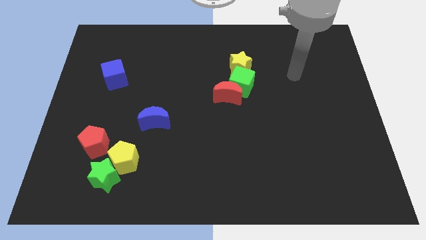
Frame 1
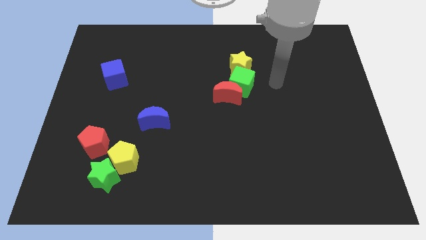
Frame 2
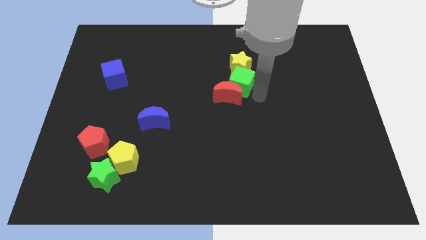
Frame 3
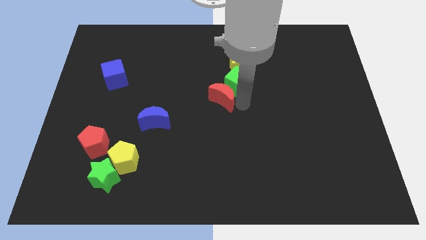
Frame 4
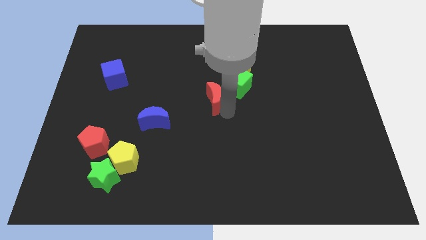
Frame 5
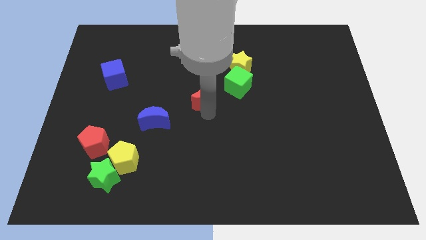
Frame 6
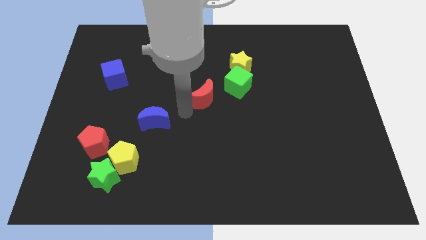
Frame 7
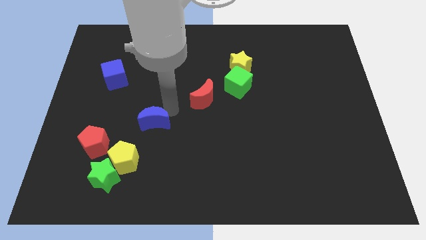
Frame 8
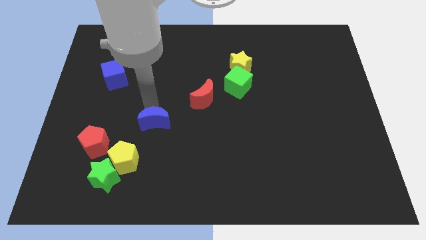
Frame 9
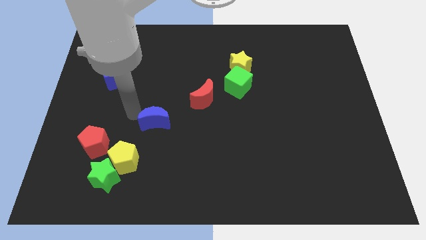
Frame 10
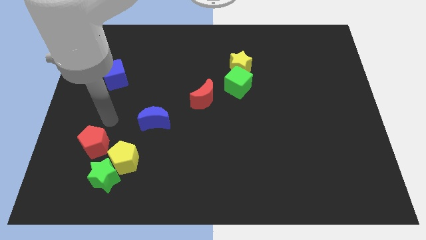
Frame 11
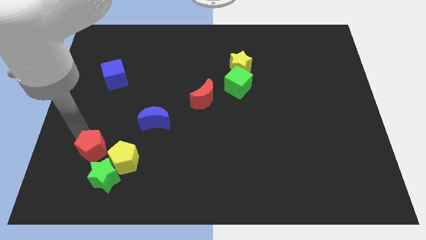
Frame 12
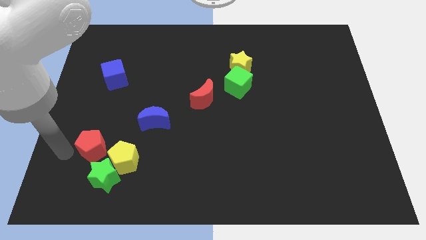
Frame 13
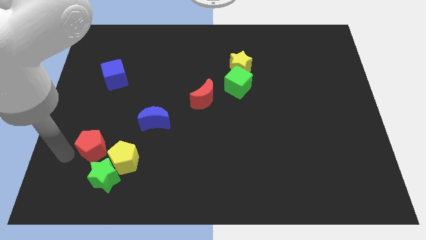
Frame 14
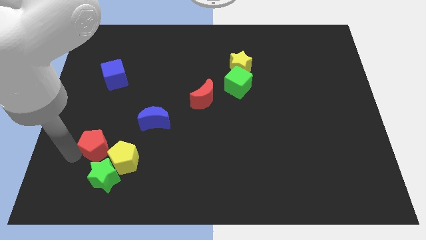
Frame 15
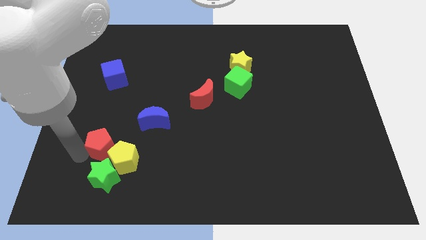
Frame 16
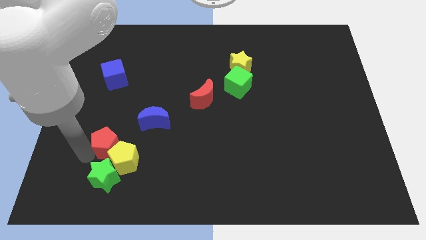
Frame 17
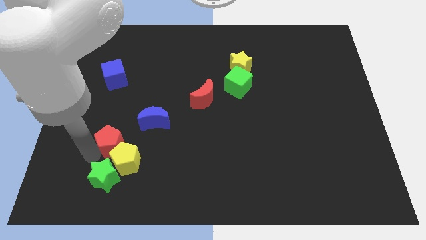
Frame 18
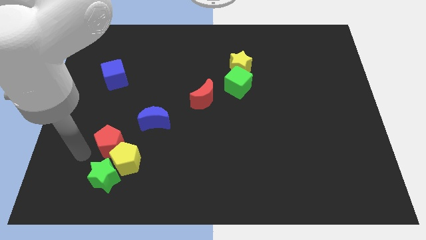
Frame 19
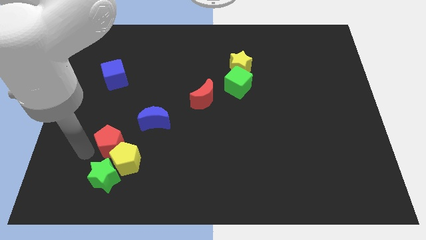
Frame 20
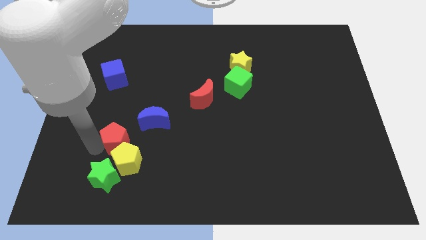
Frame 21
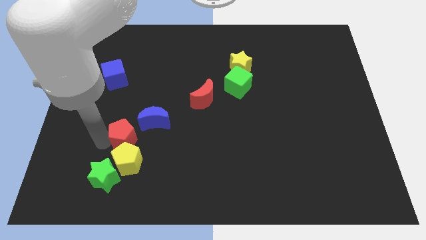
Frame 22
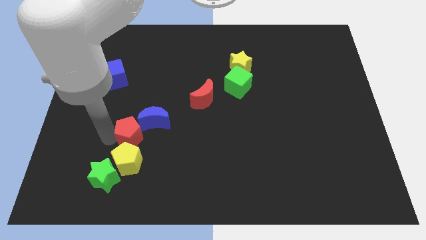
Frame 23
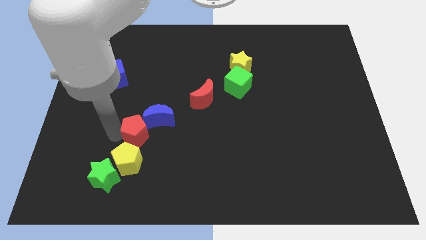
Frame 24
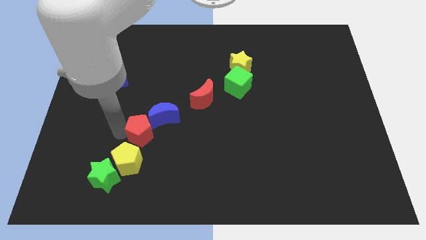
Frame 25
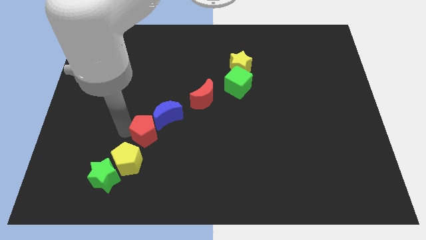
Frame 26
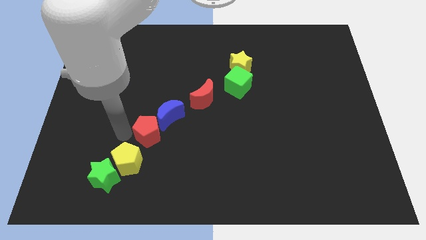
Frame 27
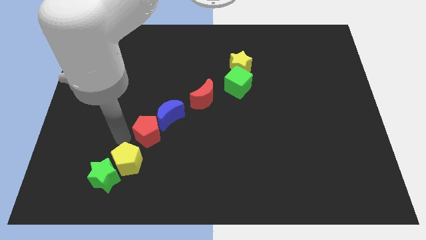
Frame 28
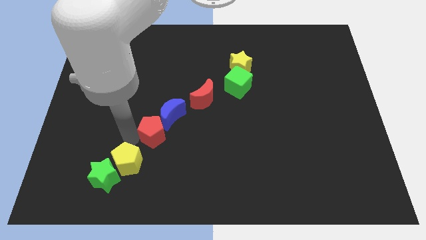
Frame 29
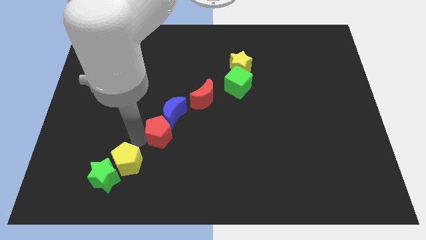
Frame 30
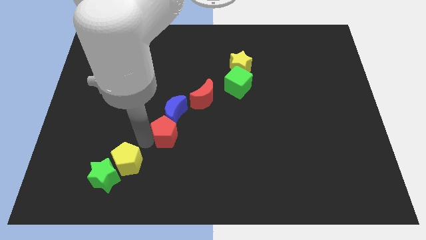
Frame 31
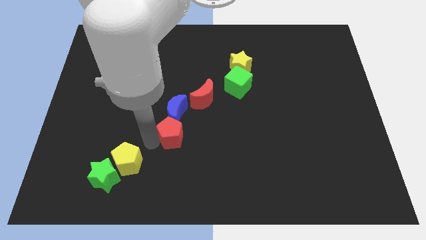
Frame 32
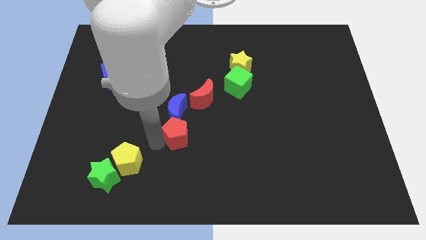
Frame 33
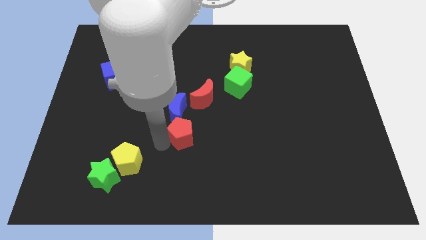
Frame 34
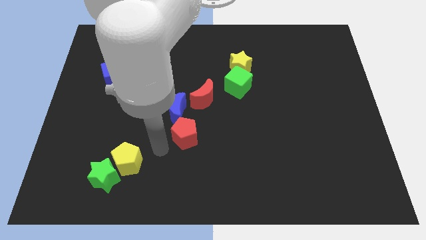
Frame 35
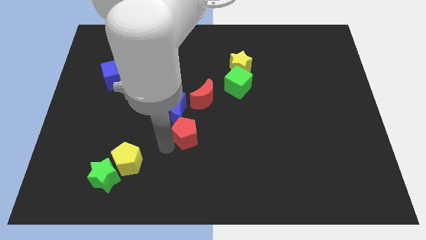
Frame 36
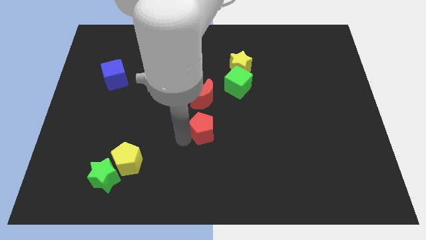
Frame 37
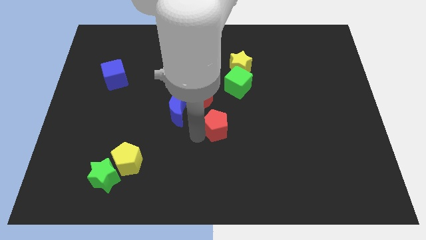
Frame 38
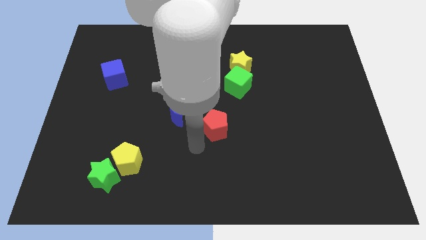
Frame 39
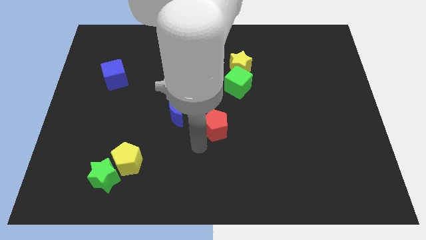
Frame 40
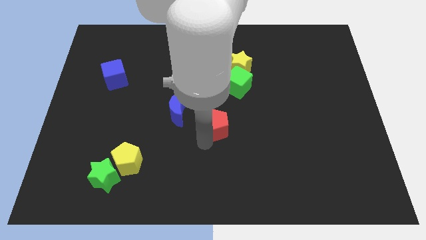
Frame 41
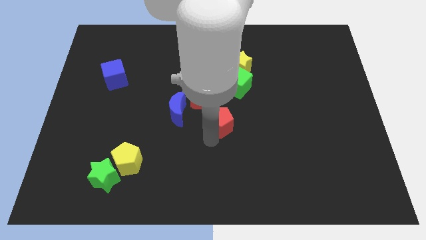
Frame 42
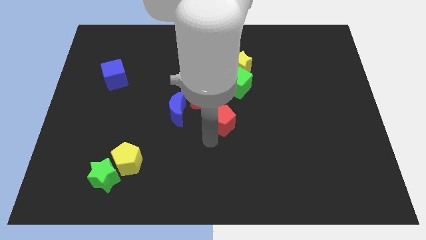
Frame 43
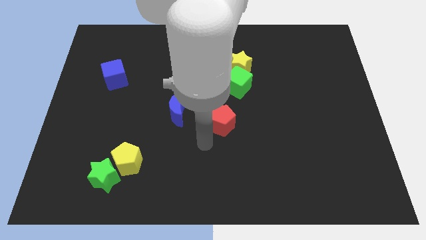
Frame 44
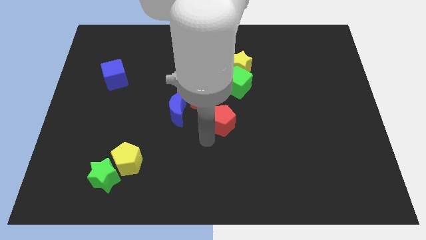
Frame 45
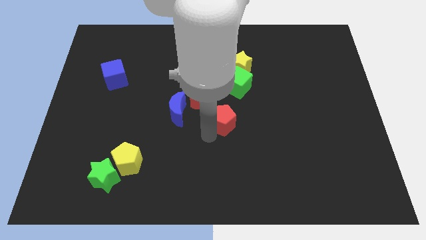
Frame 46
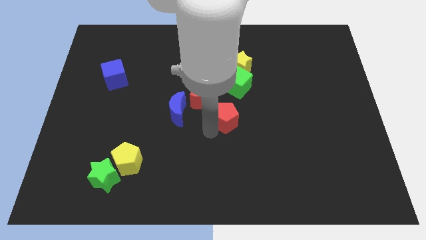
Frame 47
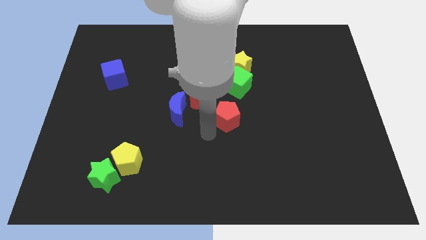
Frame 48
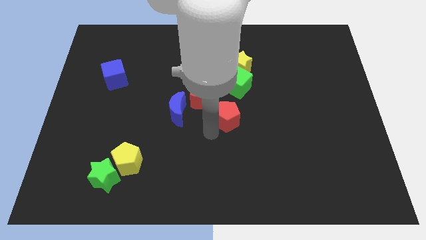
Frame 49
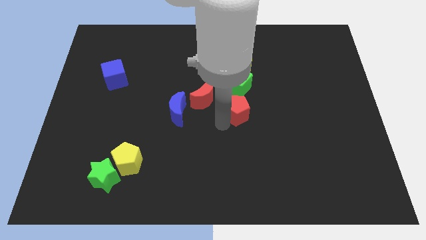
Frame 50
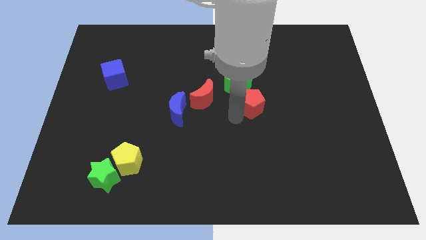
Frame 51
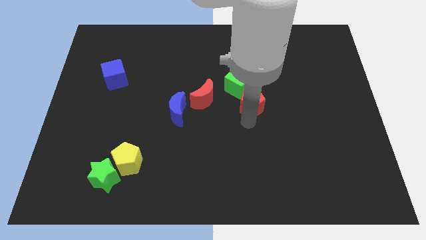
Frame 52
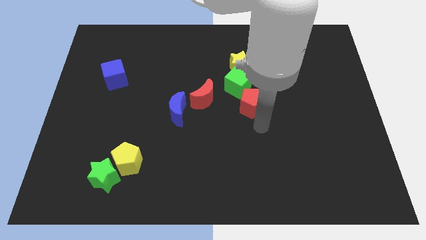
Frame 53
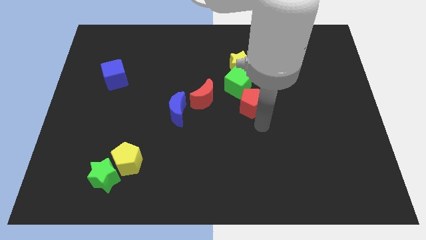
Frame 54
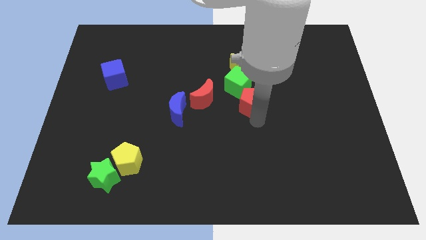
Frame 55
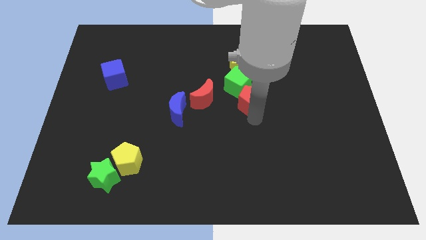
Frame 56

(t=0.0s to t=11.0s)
push the red pentagon to the green cube
